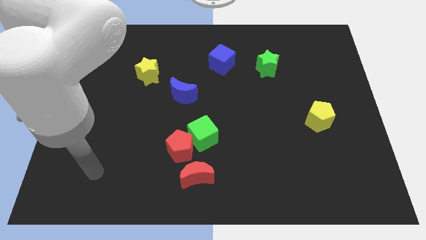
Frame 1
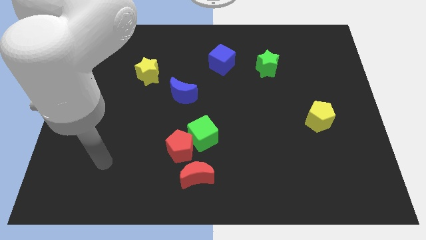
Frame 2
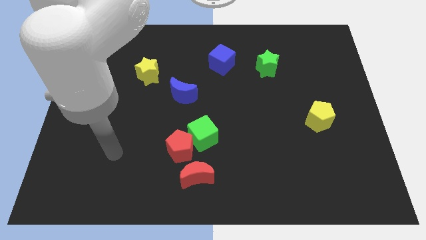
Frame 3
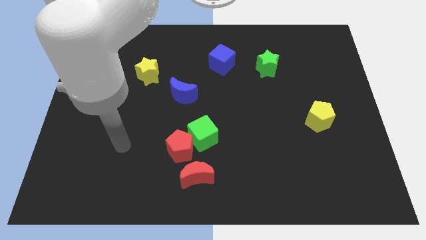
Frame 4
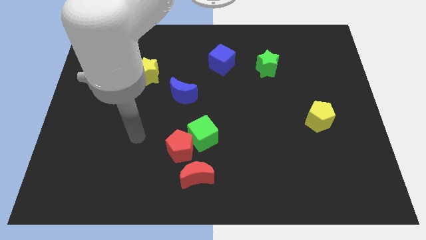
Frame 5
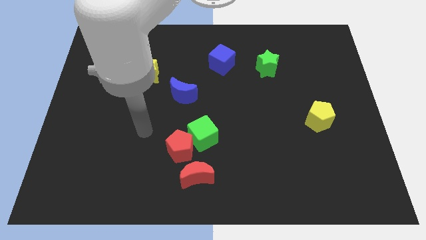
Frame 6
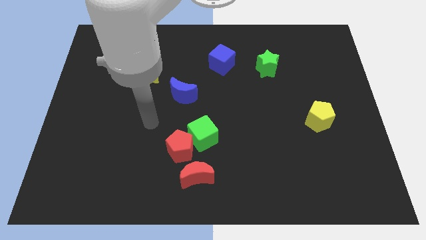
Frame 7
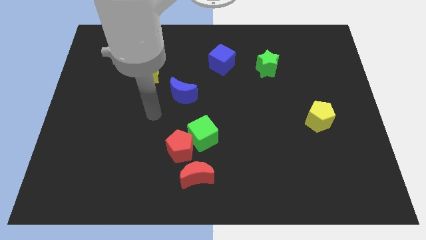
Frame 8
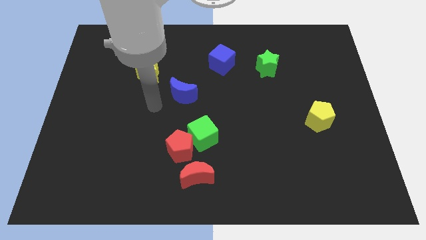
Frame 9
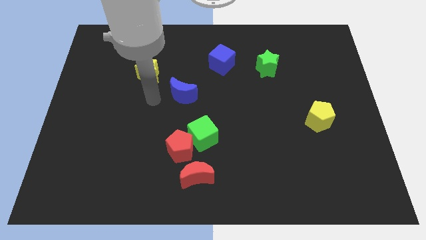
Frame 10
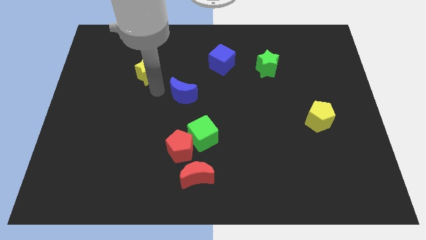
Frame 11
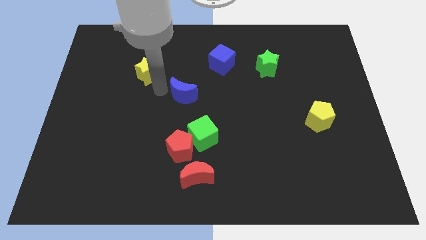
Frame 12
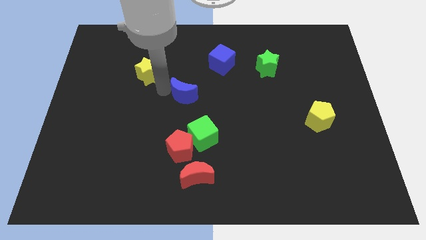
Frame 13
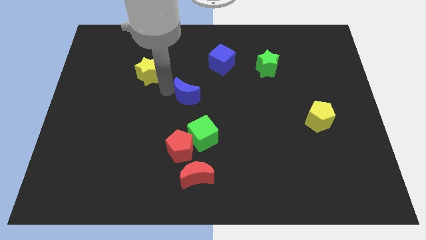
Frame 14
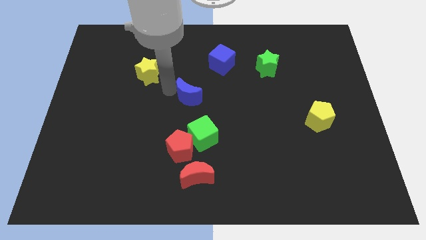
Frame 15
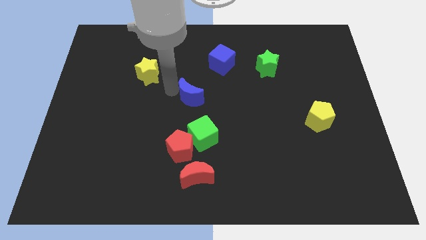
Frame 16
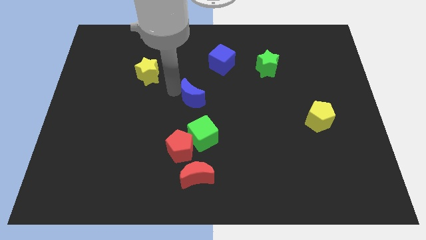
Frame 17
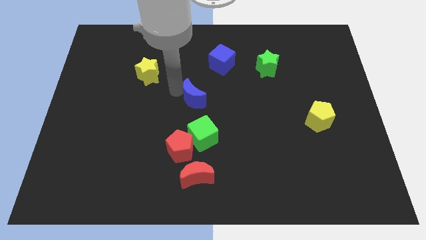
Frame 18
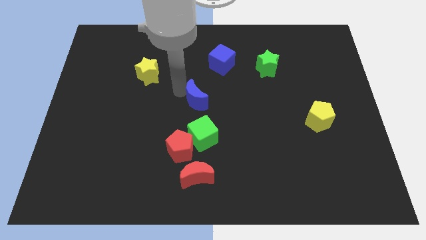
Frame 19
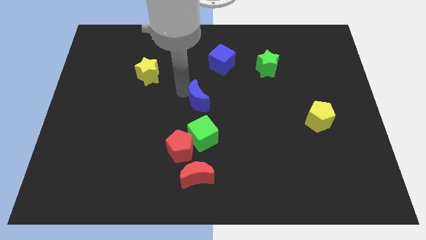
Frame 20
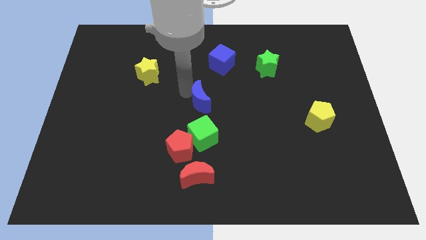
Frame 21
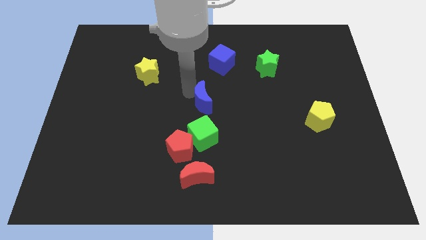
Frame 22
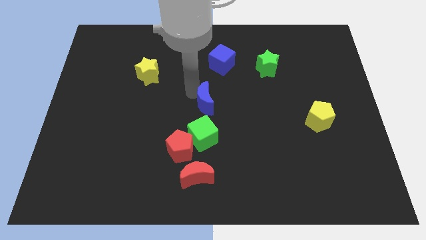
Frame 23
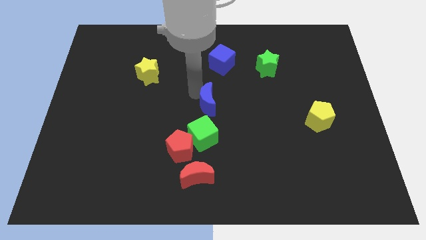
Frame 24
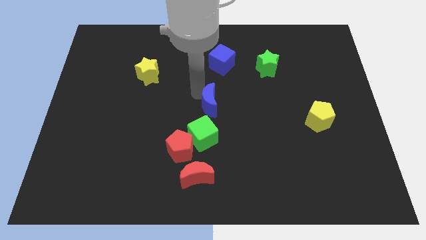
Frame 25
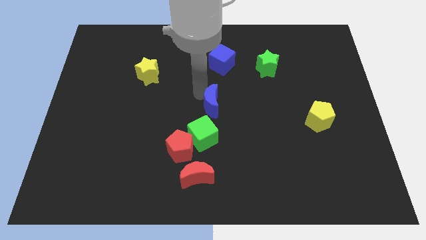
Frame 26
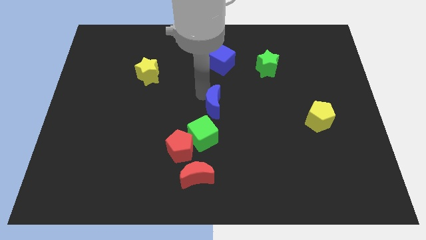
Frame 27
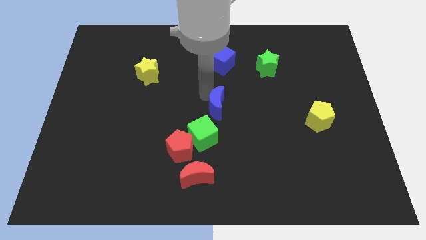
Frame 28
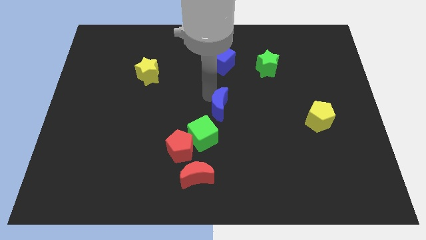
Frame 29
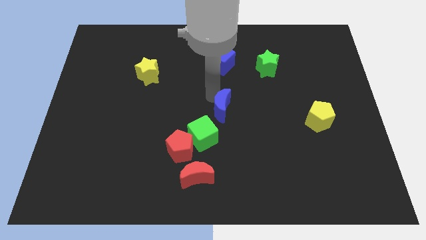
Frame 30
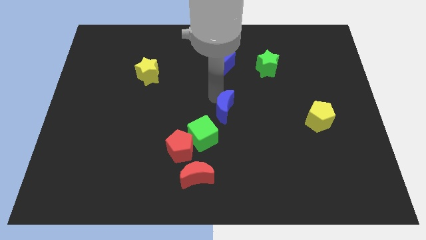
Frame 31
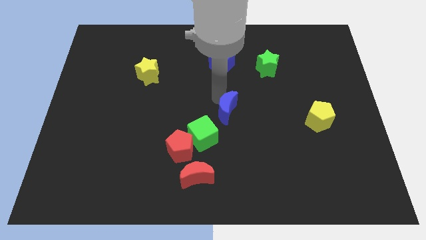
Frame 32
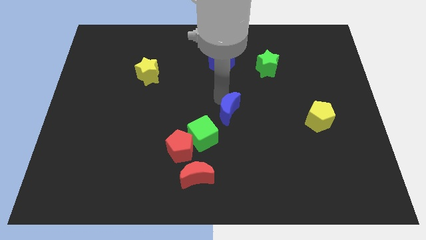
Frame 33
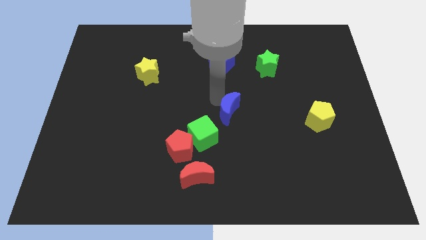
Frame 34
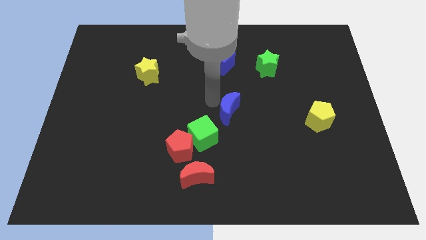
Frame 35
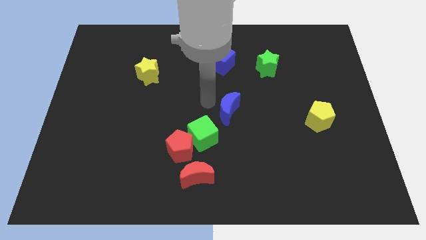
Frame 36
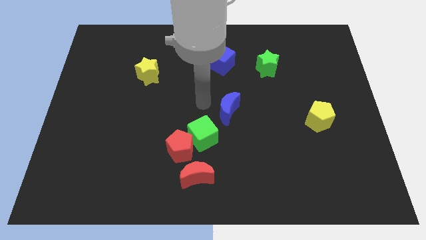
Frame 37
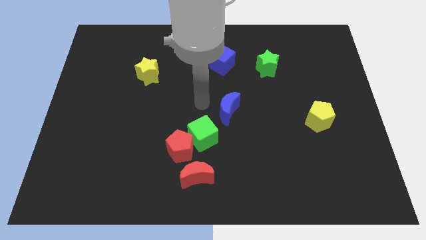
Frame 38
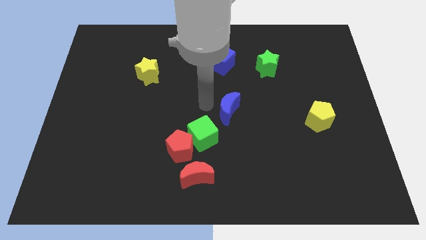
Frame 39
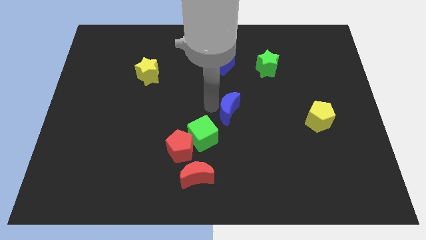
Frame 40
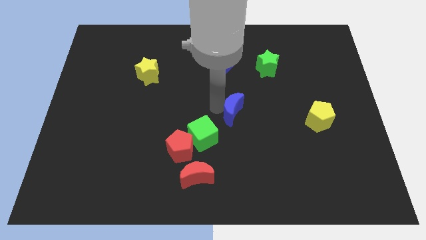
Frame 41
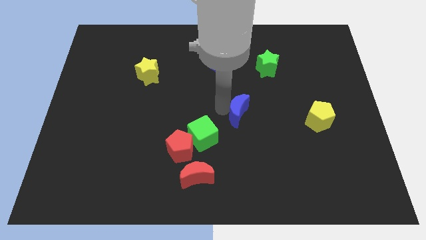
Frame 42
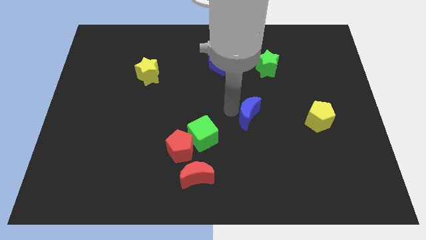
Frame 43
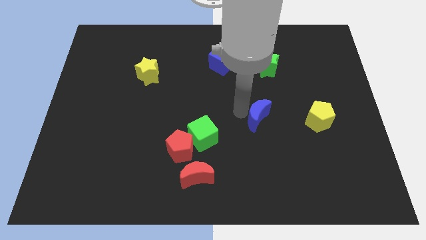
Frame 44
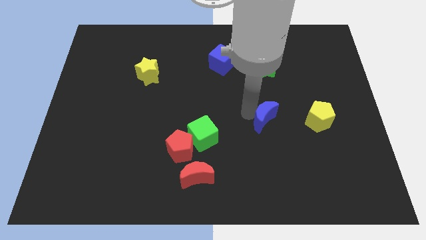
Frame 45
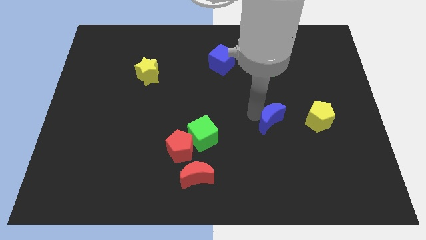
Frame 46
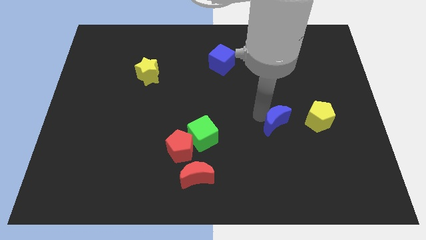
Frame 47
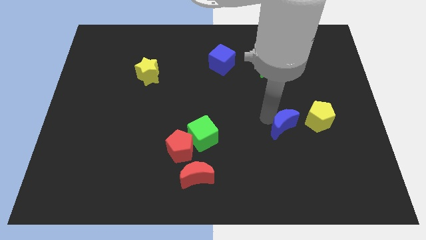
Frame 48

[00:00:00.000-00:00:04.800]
slide the blue moon diagonally down and to the left of the yellow pentagon

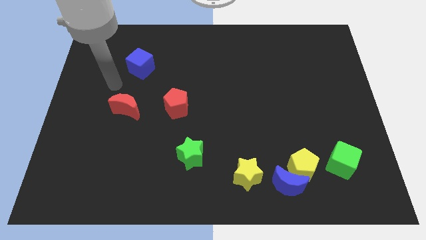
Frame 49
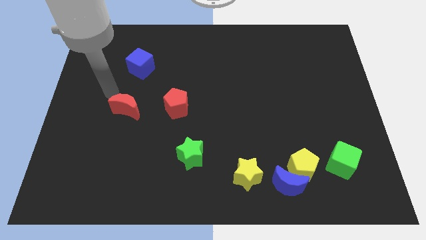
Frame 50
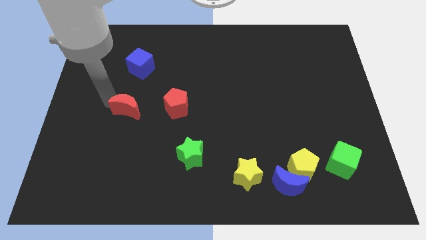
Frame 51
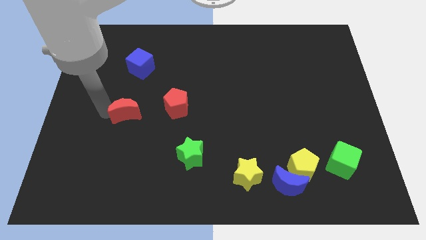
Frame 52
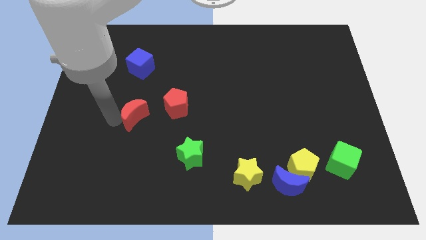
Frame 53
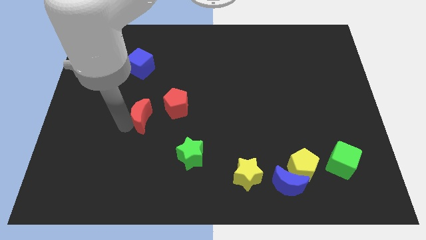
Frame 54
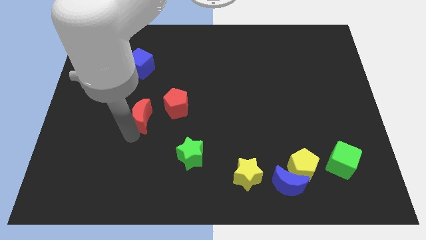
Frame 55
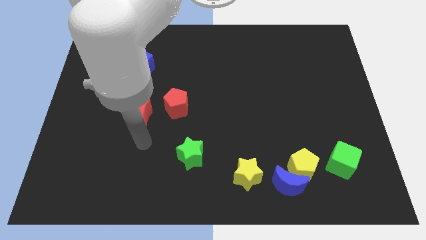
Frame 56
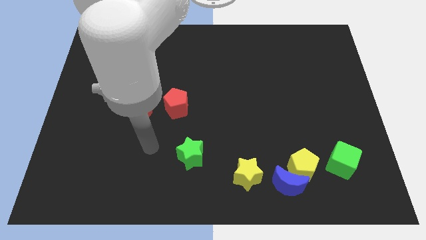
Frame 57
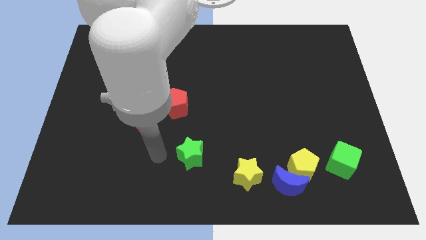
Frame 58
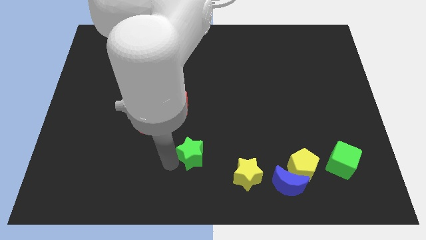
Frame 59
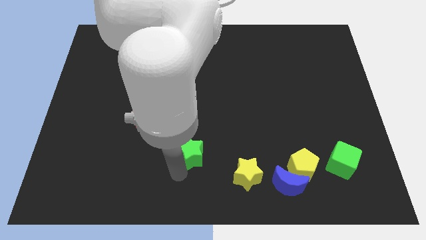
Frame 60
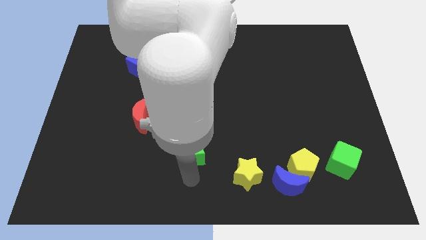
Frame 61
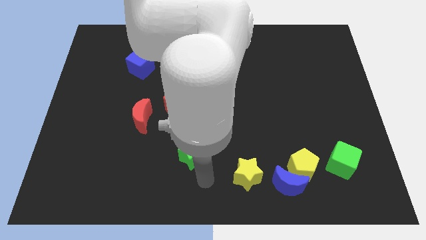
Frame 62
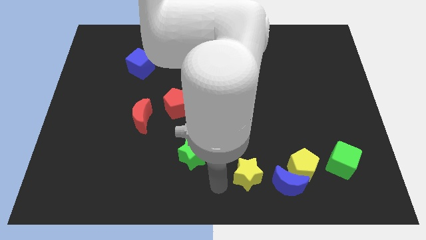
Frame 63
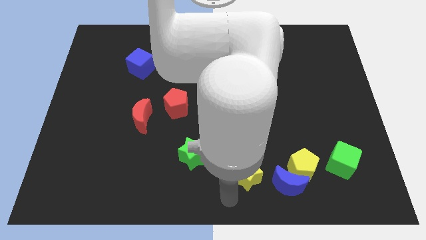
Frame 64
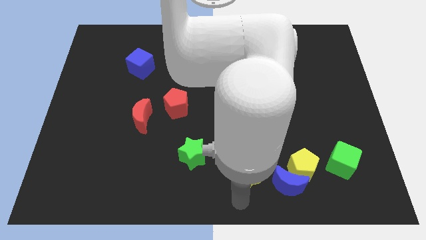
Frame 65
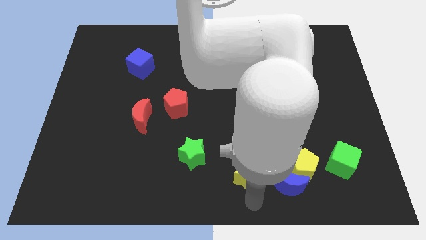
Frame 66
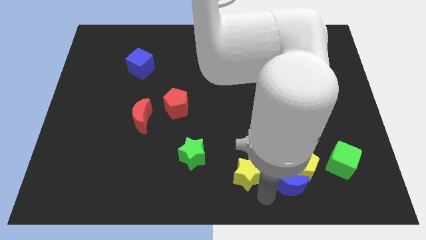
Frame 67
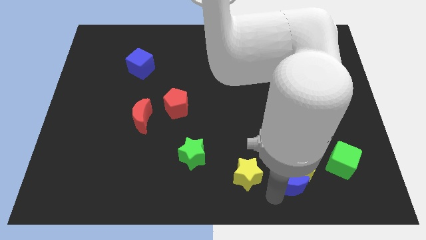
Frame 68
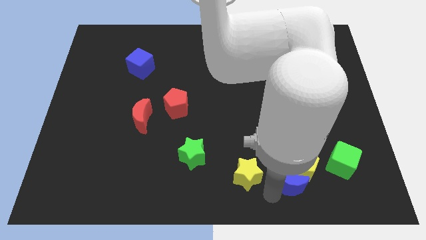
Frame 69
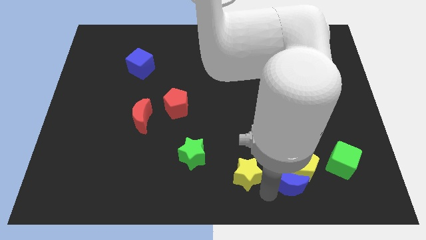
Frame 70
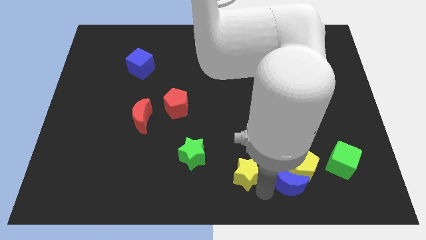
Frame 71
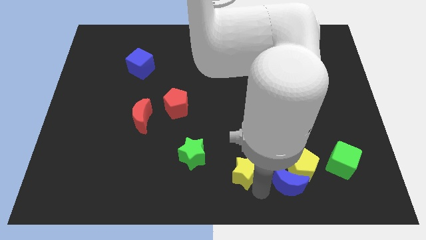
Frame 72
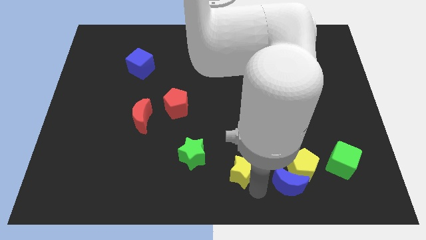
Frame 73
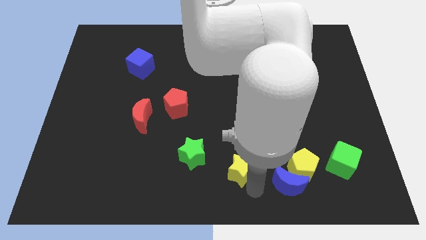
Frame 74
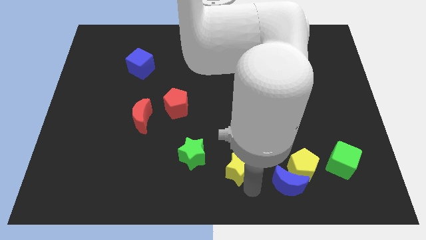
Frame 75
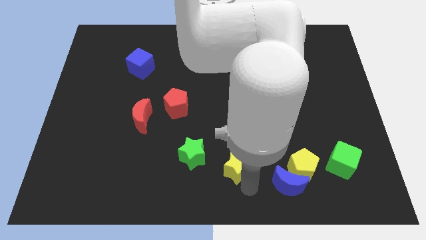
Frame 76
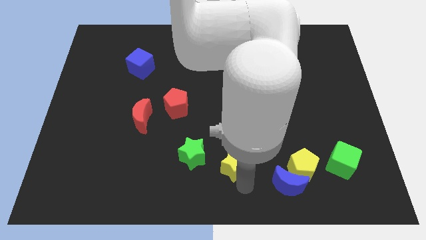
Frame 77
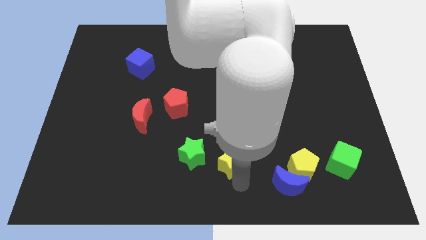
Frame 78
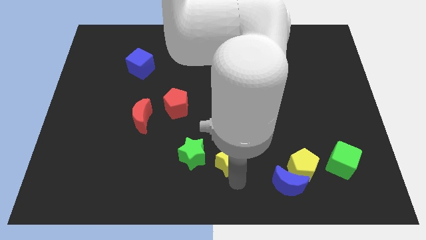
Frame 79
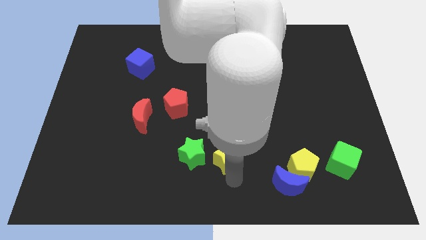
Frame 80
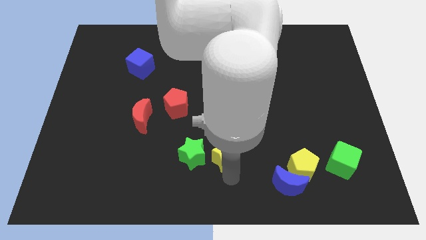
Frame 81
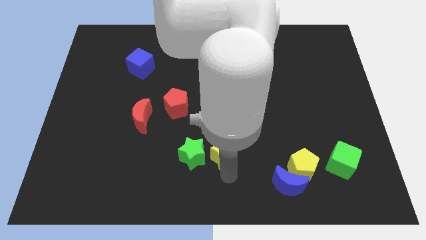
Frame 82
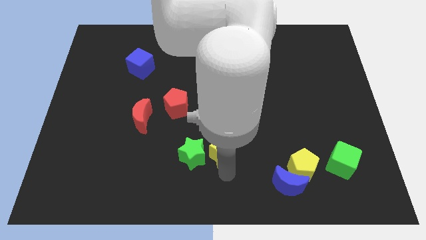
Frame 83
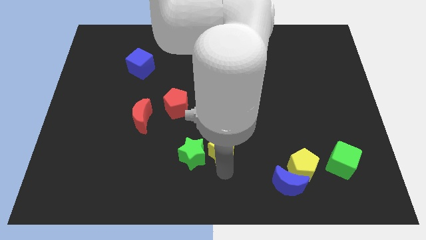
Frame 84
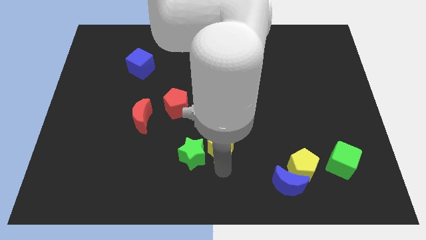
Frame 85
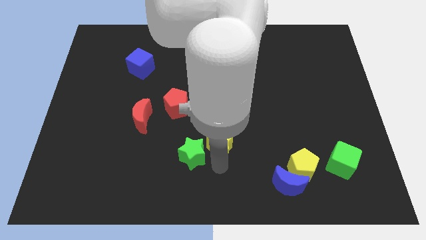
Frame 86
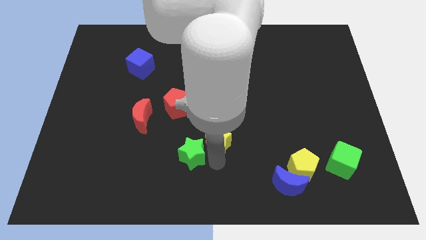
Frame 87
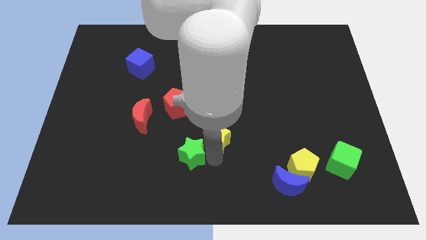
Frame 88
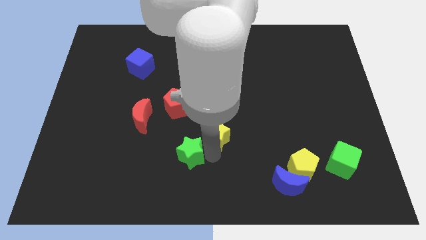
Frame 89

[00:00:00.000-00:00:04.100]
move the yellow star to the top side of the green star
